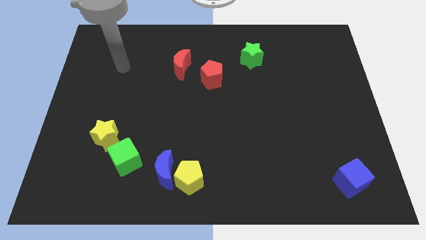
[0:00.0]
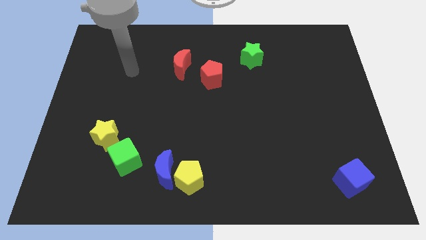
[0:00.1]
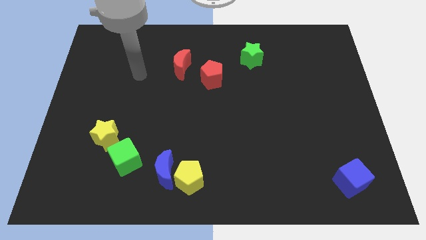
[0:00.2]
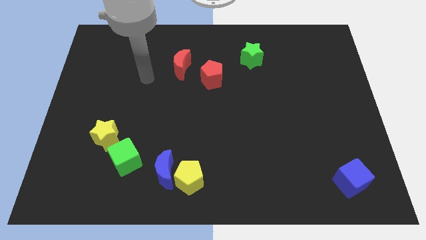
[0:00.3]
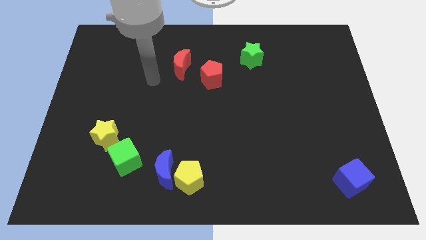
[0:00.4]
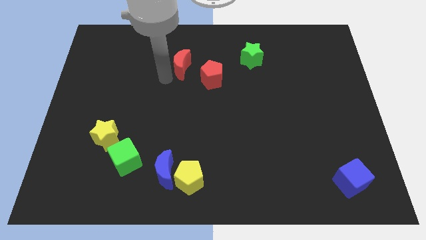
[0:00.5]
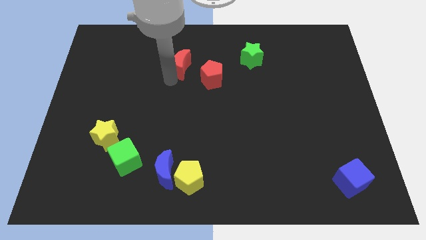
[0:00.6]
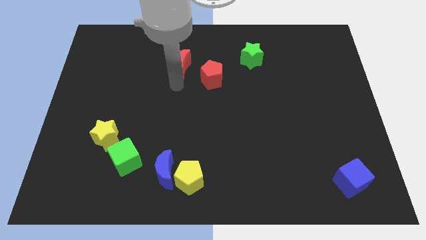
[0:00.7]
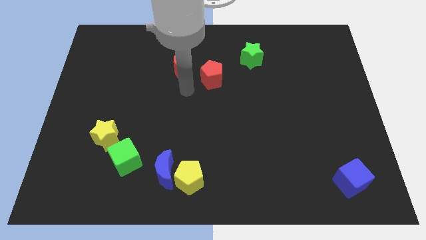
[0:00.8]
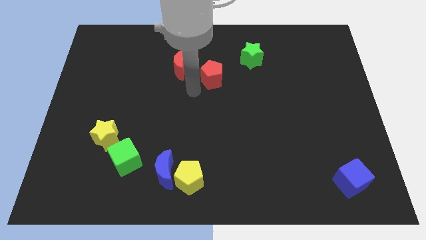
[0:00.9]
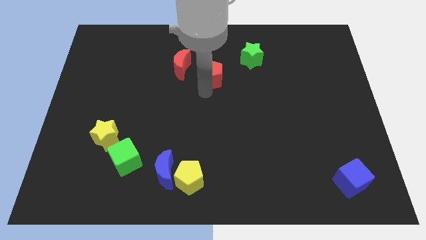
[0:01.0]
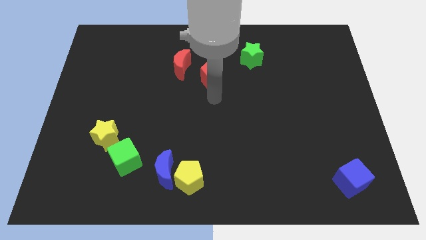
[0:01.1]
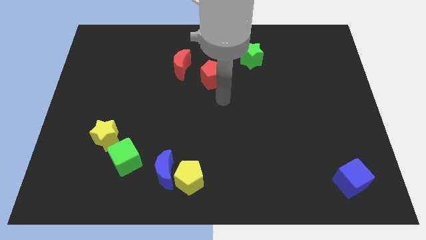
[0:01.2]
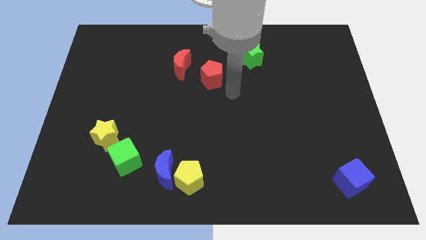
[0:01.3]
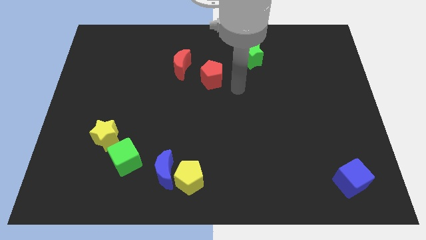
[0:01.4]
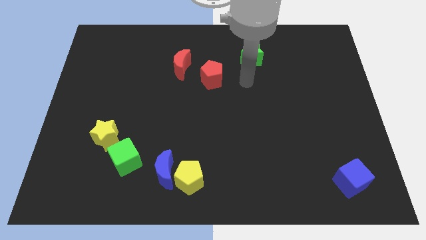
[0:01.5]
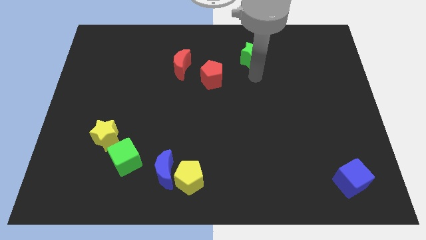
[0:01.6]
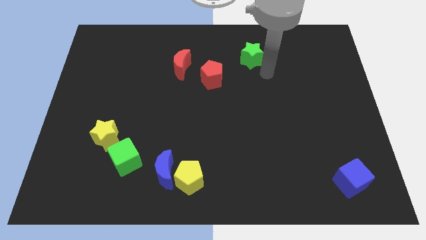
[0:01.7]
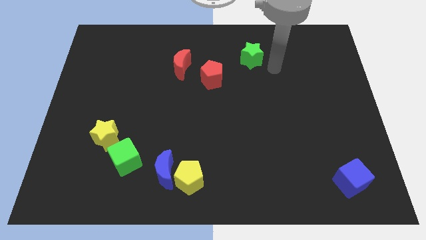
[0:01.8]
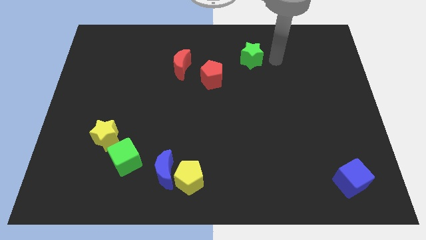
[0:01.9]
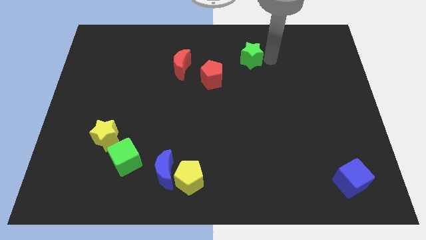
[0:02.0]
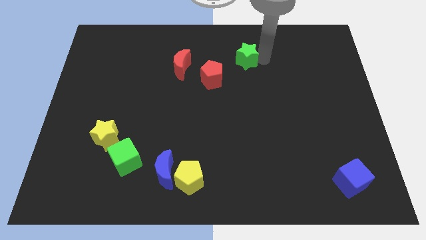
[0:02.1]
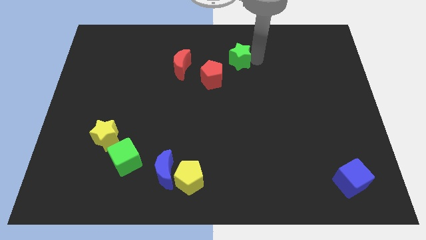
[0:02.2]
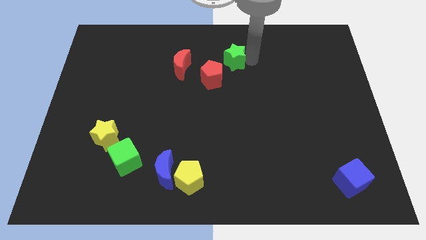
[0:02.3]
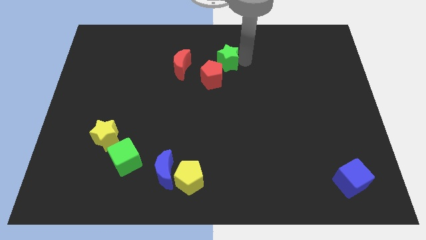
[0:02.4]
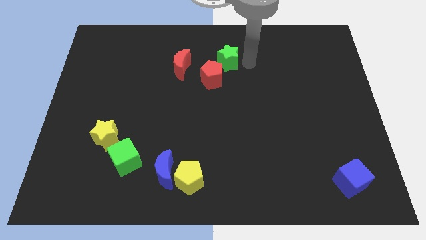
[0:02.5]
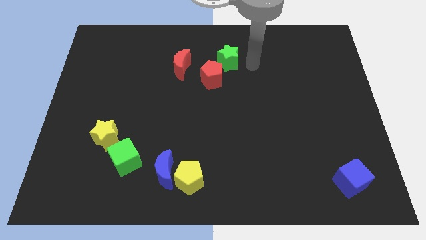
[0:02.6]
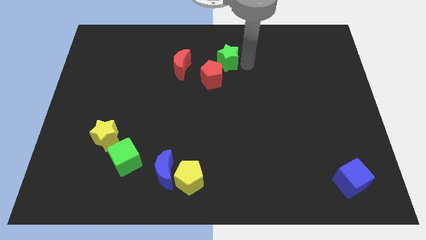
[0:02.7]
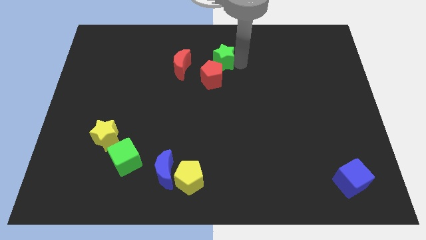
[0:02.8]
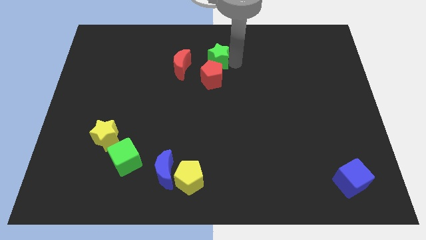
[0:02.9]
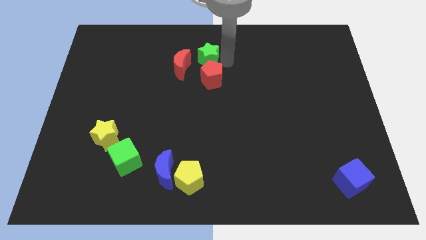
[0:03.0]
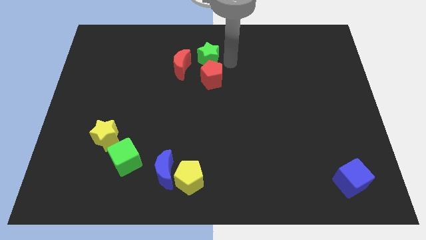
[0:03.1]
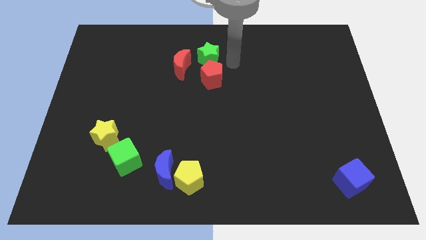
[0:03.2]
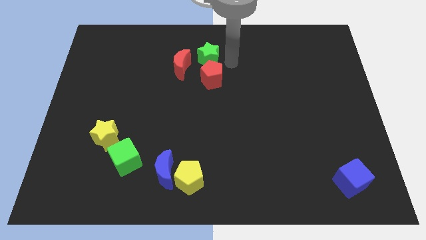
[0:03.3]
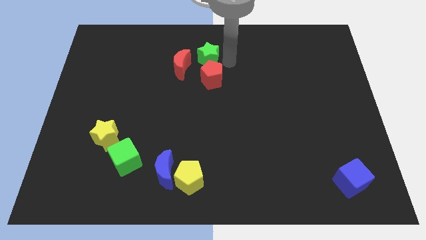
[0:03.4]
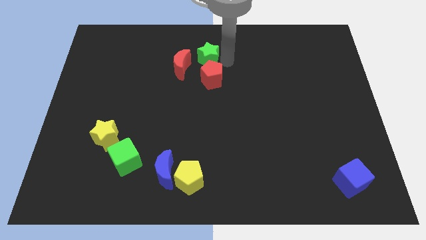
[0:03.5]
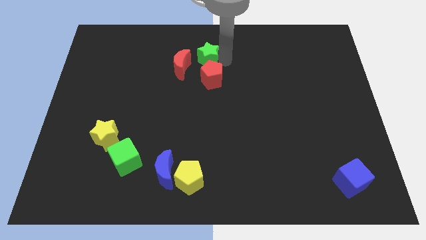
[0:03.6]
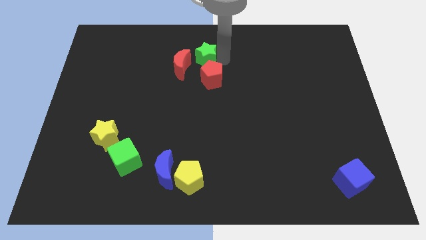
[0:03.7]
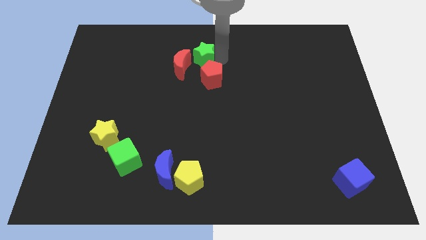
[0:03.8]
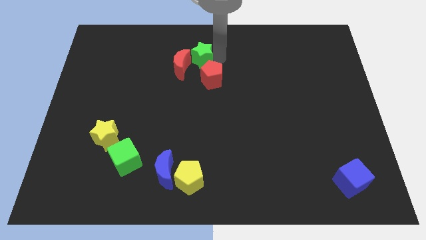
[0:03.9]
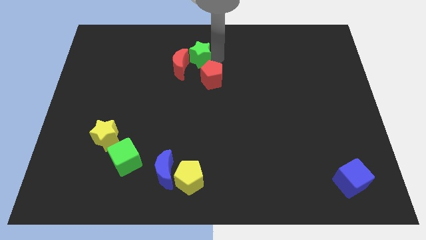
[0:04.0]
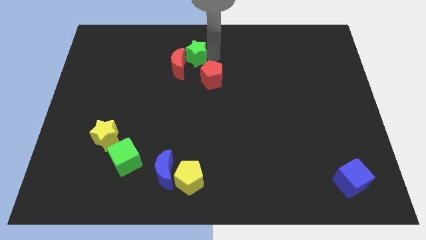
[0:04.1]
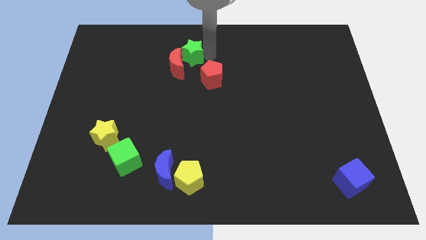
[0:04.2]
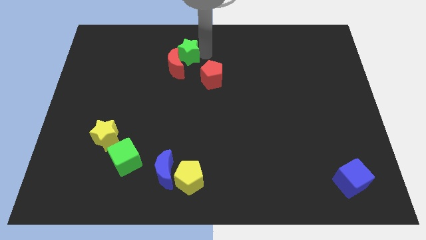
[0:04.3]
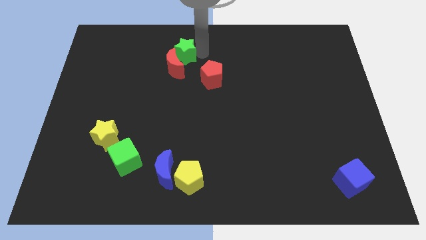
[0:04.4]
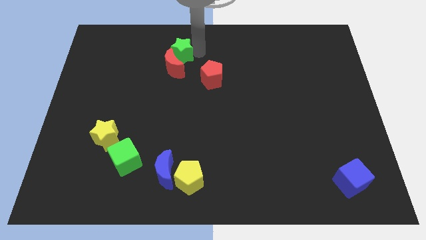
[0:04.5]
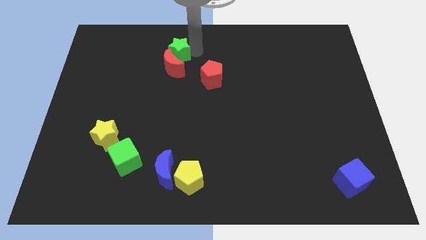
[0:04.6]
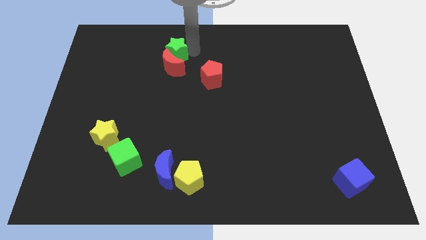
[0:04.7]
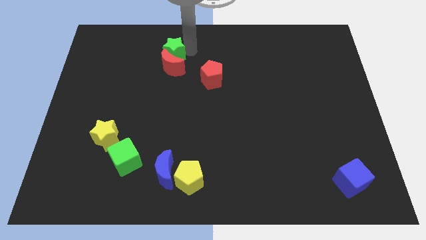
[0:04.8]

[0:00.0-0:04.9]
push the green star to the left

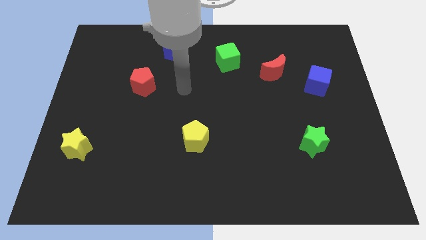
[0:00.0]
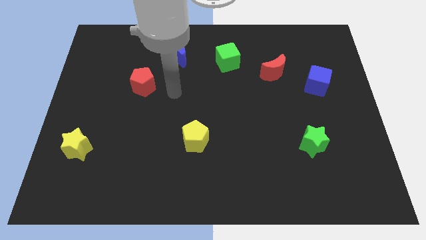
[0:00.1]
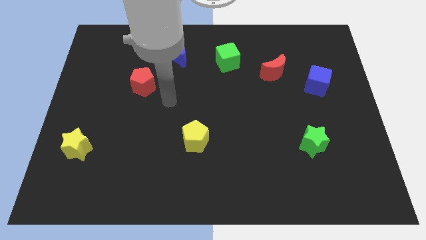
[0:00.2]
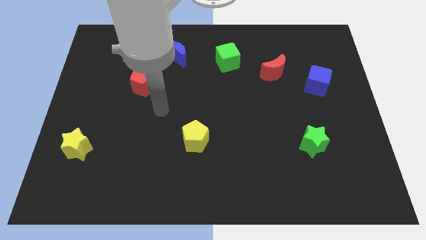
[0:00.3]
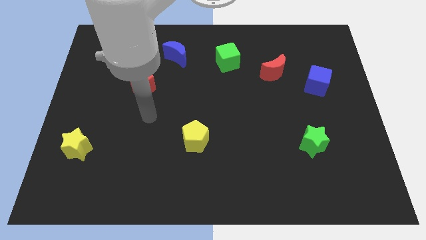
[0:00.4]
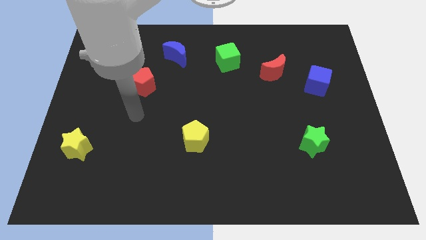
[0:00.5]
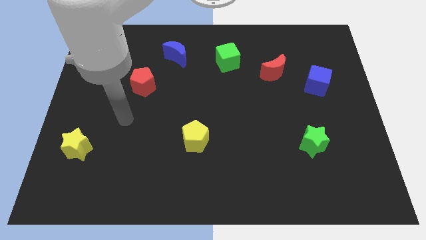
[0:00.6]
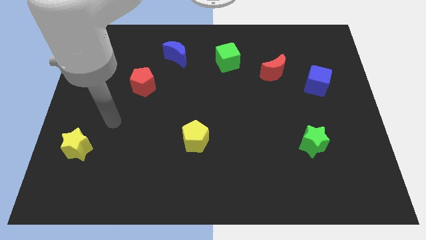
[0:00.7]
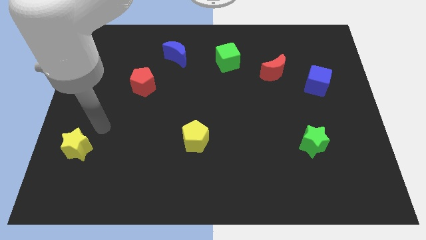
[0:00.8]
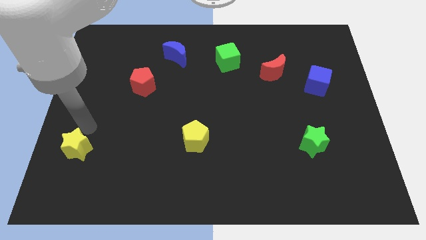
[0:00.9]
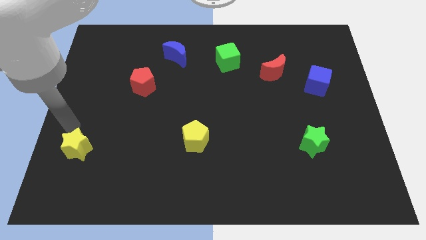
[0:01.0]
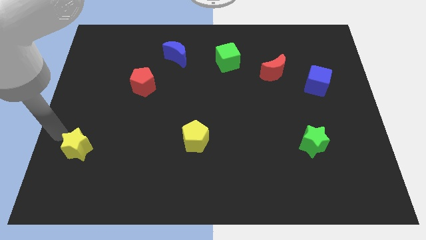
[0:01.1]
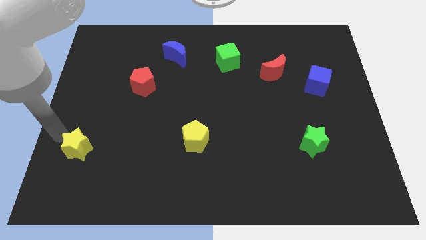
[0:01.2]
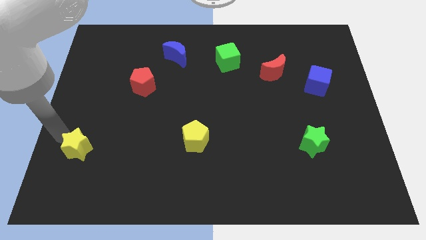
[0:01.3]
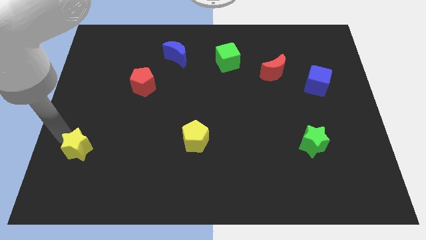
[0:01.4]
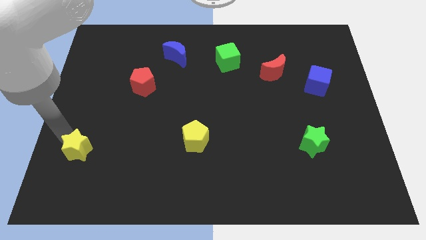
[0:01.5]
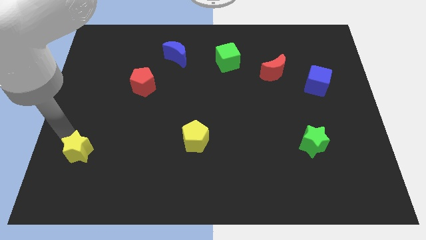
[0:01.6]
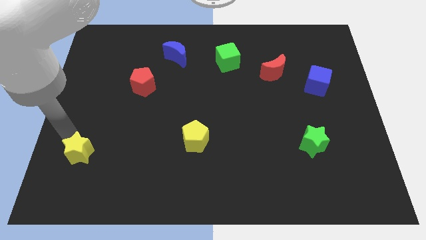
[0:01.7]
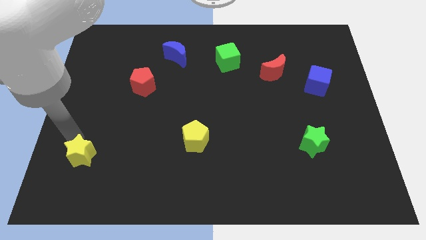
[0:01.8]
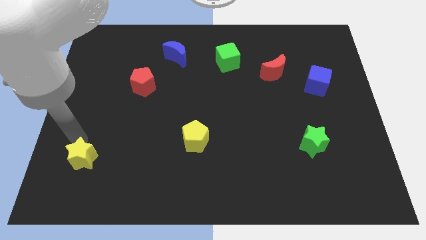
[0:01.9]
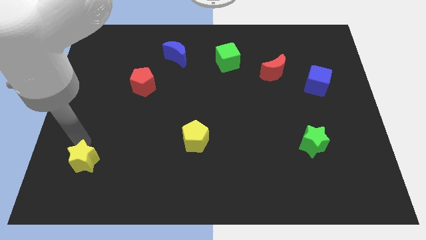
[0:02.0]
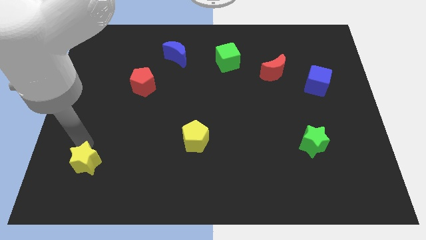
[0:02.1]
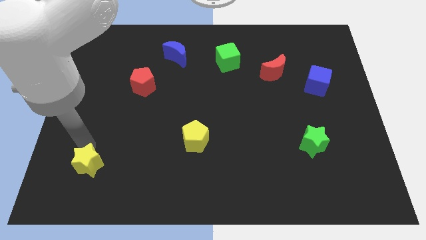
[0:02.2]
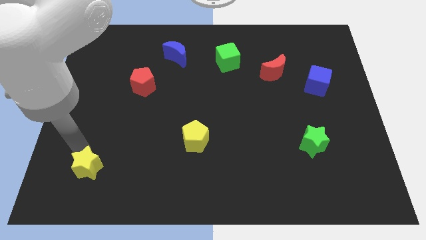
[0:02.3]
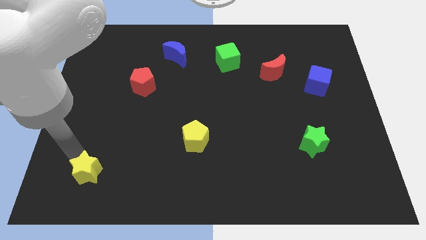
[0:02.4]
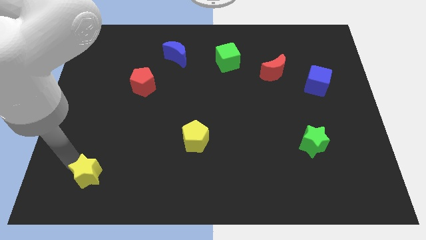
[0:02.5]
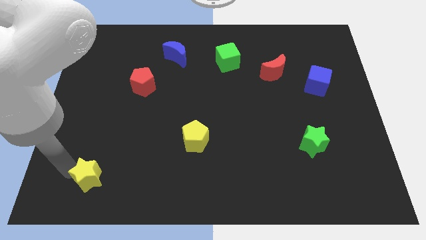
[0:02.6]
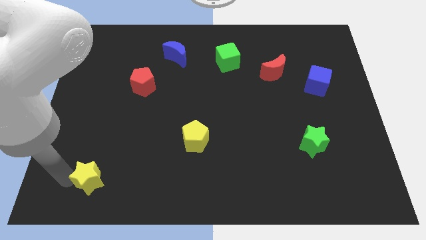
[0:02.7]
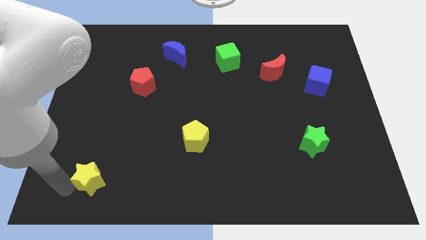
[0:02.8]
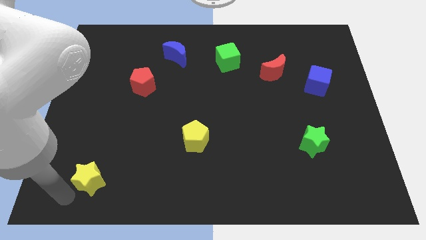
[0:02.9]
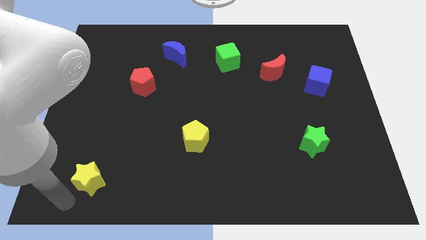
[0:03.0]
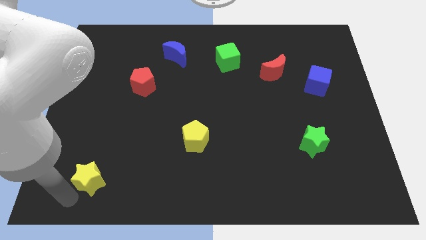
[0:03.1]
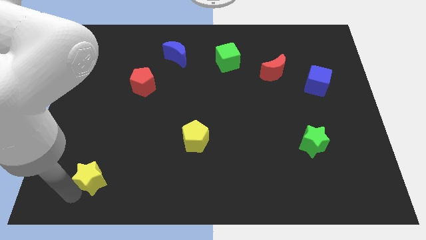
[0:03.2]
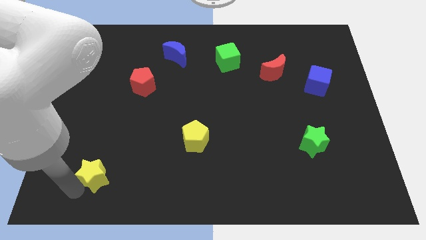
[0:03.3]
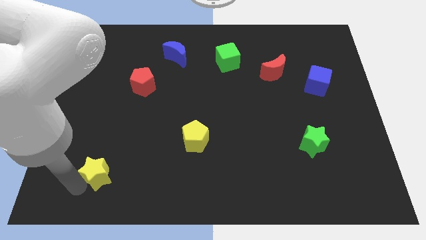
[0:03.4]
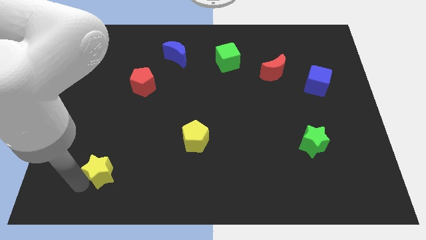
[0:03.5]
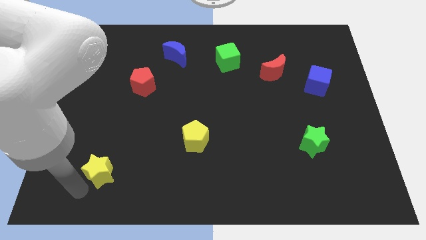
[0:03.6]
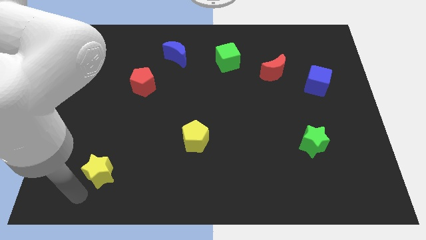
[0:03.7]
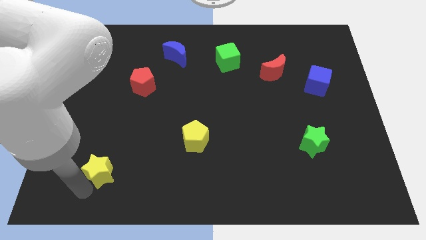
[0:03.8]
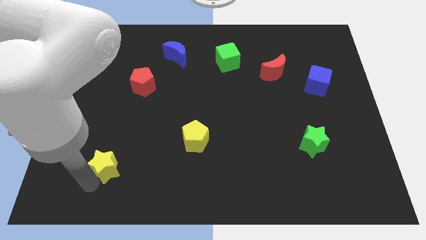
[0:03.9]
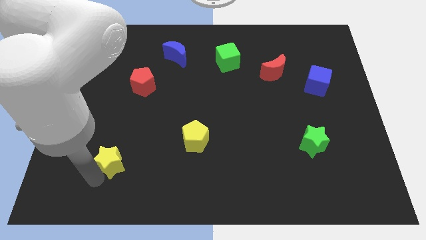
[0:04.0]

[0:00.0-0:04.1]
slightly push the yellow star to the right
